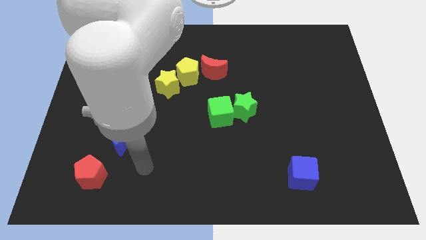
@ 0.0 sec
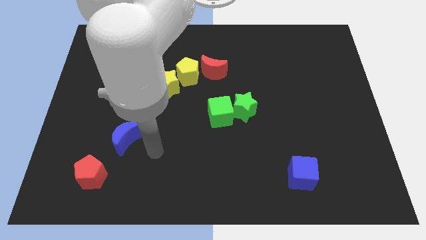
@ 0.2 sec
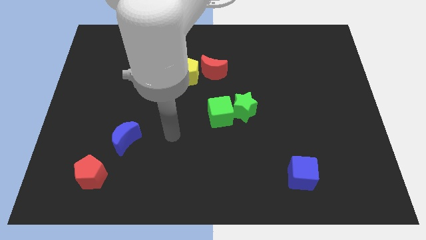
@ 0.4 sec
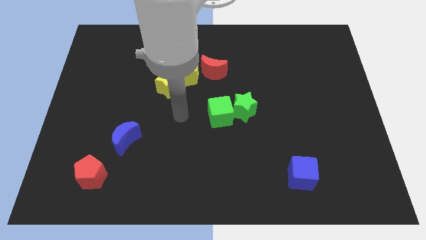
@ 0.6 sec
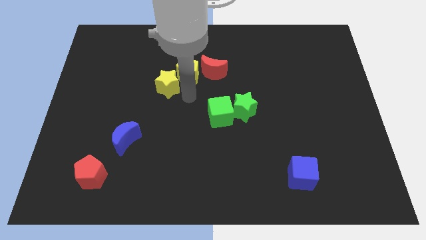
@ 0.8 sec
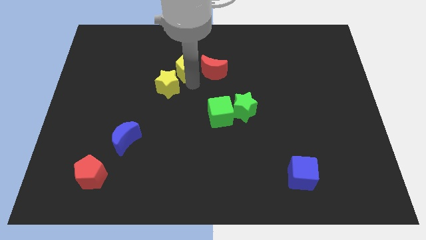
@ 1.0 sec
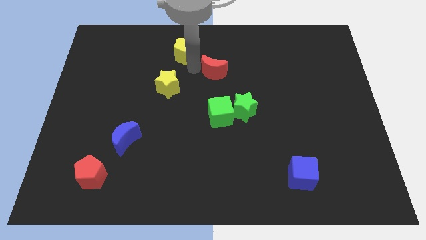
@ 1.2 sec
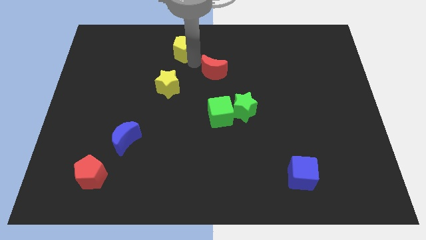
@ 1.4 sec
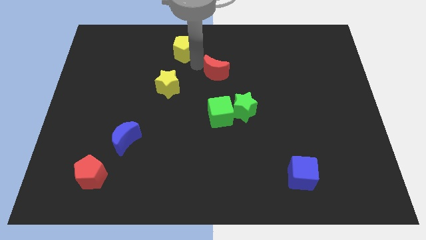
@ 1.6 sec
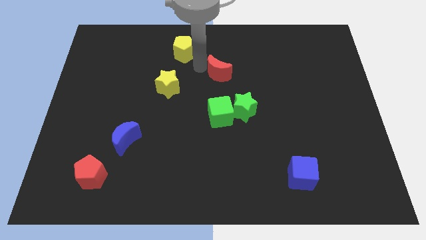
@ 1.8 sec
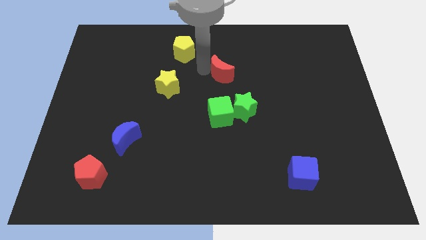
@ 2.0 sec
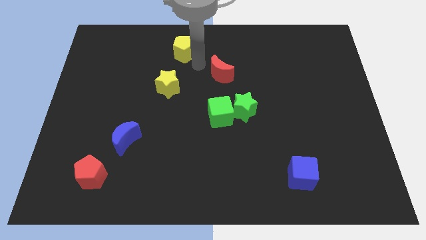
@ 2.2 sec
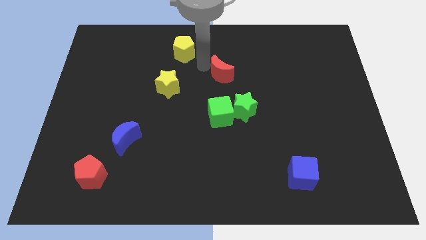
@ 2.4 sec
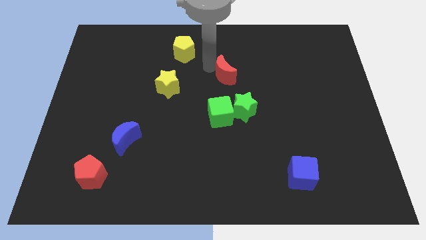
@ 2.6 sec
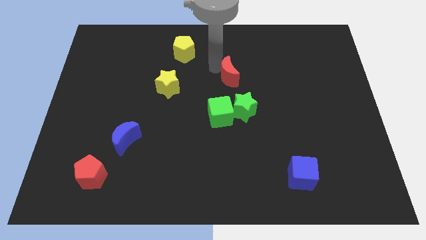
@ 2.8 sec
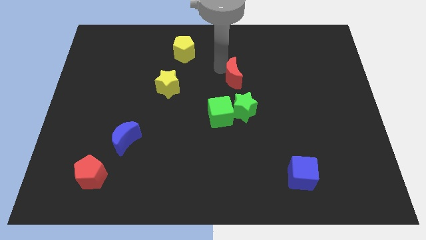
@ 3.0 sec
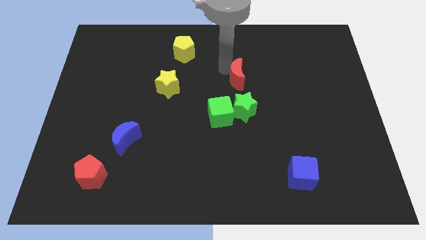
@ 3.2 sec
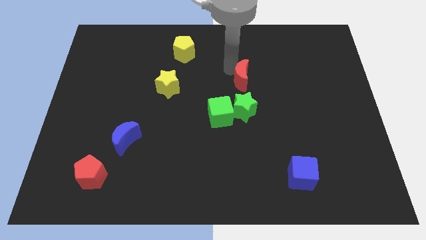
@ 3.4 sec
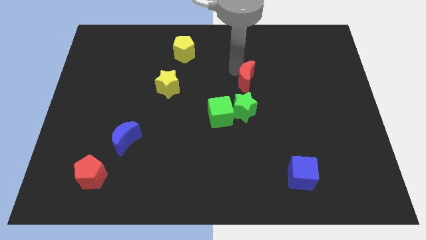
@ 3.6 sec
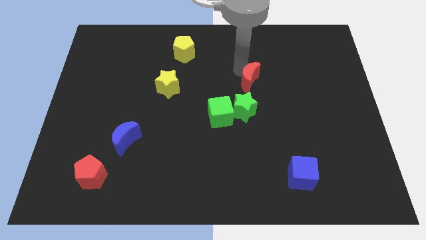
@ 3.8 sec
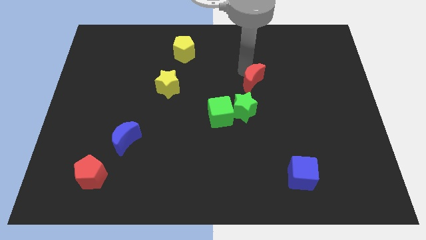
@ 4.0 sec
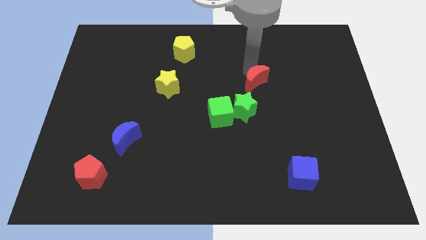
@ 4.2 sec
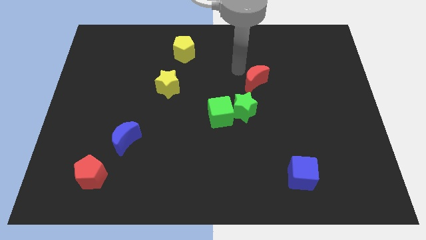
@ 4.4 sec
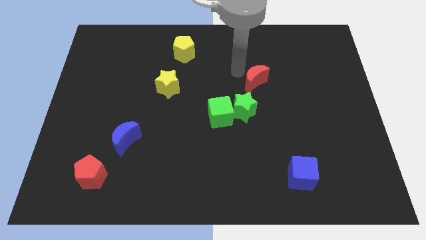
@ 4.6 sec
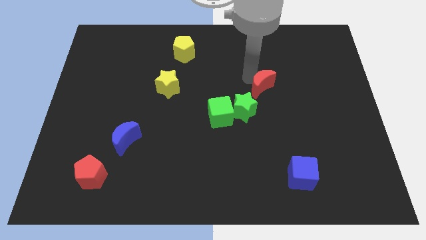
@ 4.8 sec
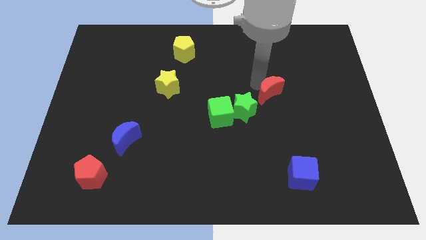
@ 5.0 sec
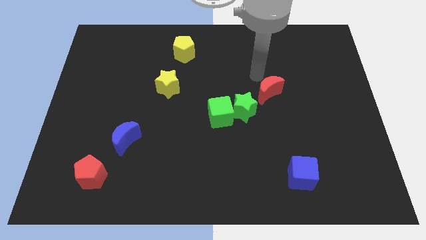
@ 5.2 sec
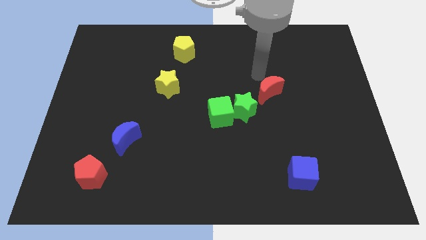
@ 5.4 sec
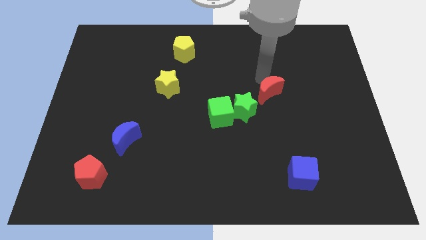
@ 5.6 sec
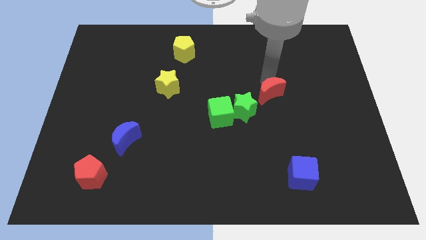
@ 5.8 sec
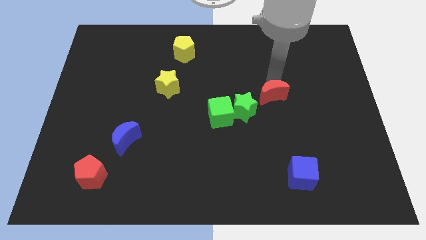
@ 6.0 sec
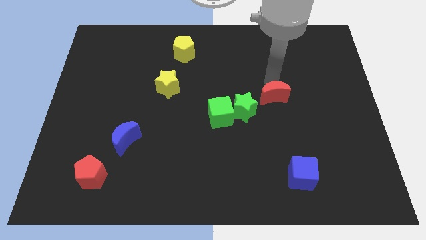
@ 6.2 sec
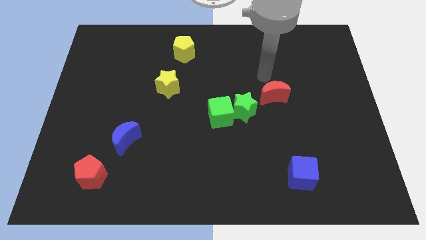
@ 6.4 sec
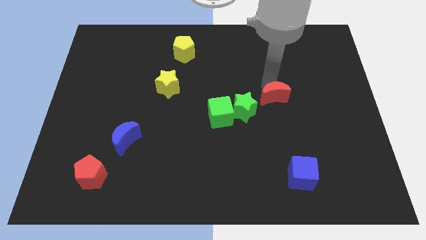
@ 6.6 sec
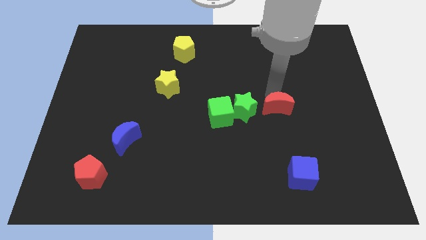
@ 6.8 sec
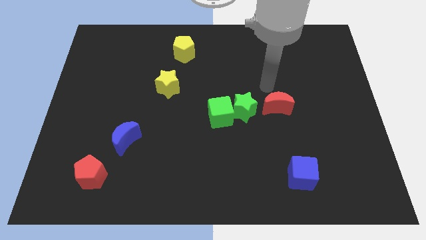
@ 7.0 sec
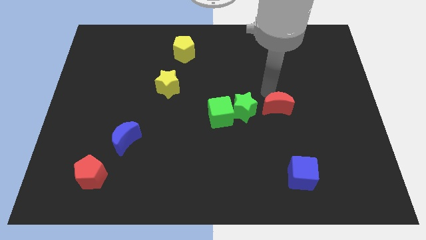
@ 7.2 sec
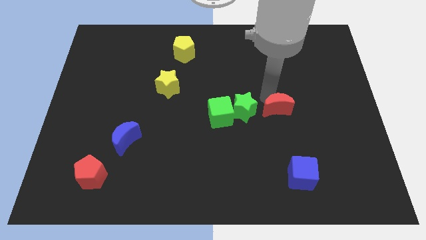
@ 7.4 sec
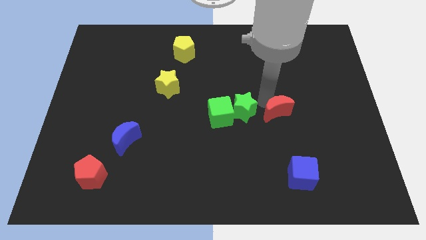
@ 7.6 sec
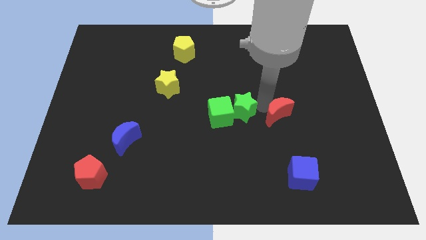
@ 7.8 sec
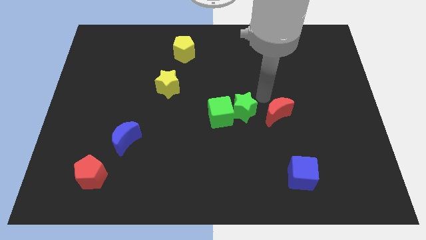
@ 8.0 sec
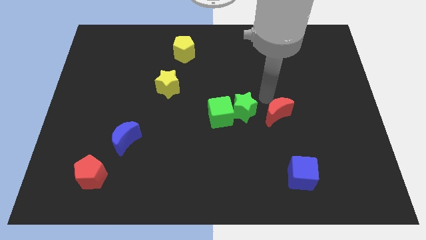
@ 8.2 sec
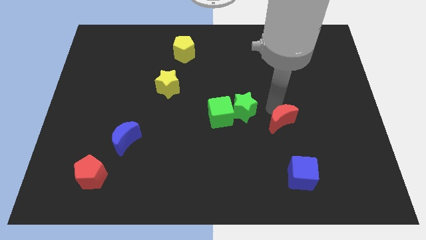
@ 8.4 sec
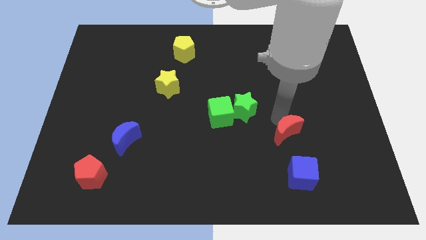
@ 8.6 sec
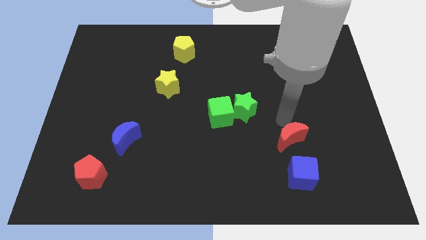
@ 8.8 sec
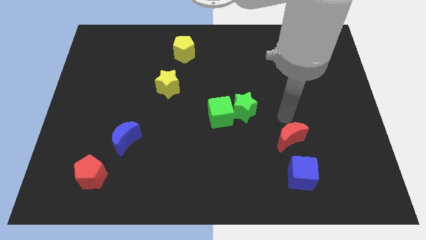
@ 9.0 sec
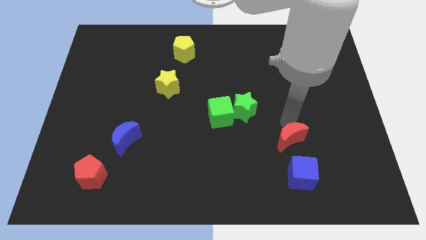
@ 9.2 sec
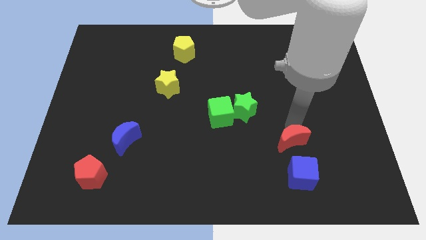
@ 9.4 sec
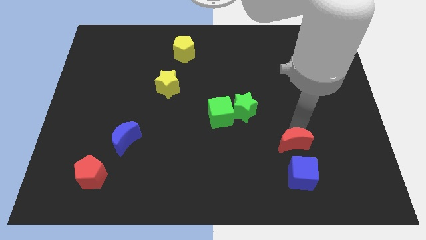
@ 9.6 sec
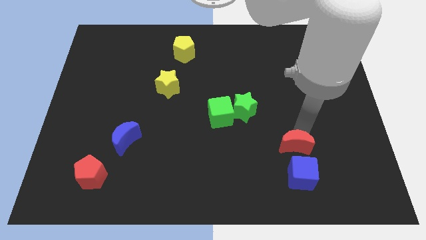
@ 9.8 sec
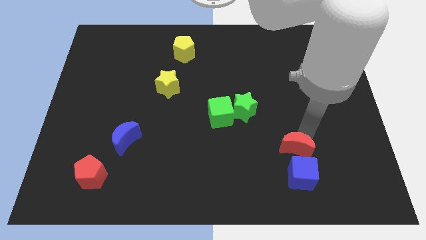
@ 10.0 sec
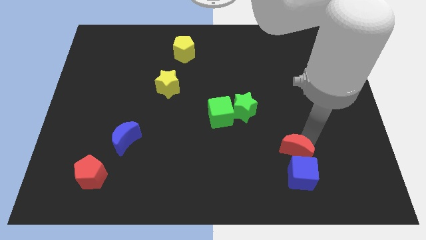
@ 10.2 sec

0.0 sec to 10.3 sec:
move the red moon close to the blue cube

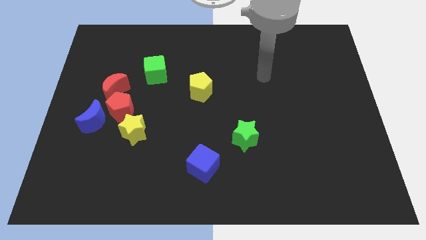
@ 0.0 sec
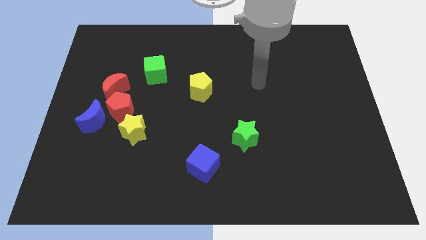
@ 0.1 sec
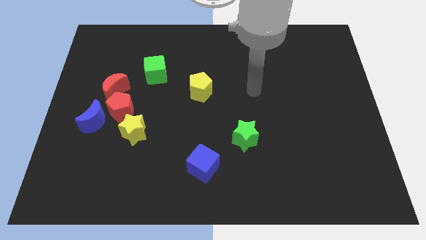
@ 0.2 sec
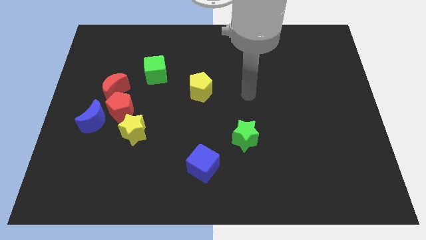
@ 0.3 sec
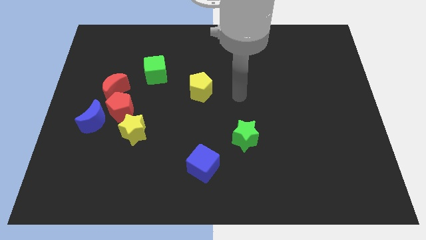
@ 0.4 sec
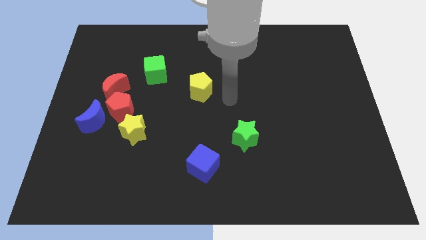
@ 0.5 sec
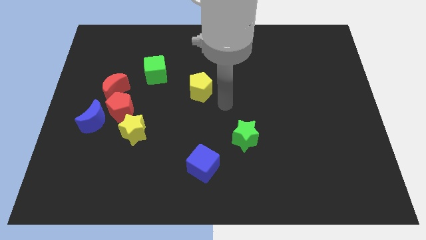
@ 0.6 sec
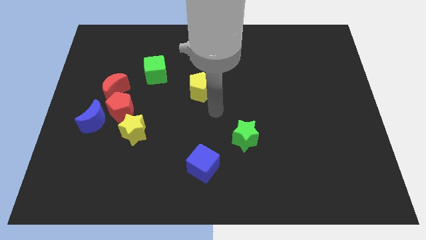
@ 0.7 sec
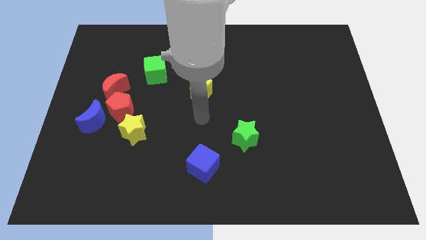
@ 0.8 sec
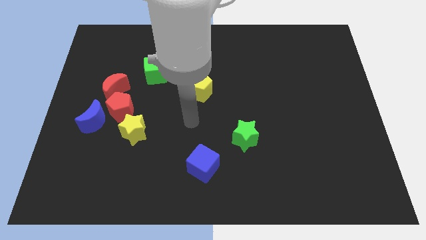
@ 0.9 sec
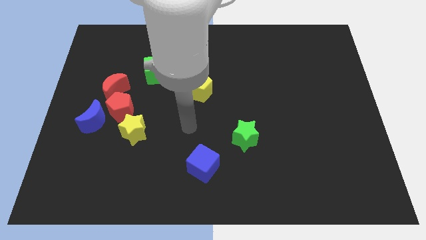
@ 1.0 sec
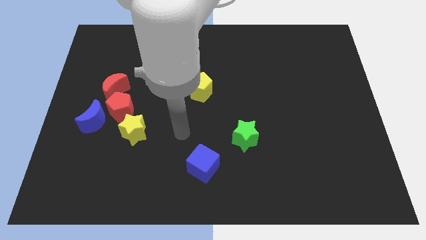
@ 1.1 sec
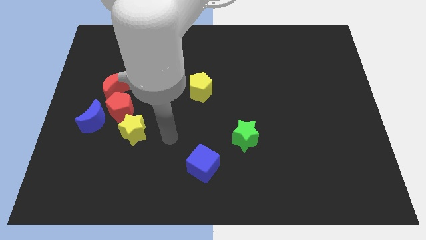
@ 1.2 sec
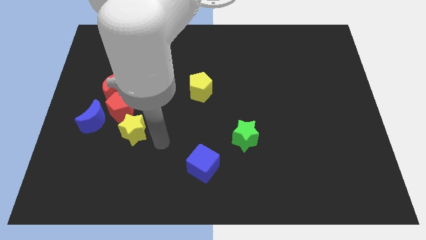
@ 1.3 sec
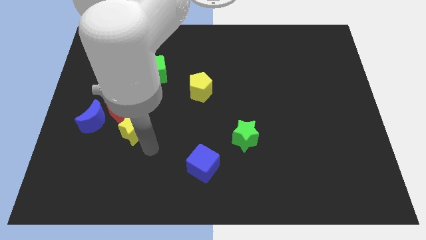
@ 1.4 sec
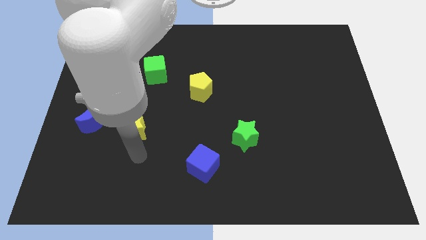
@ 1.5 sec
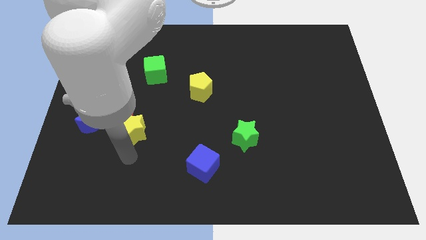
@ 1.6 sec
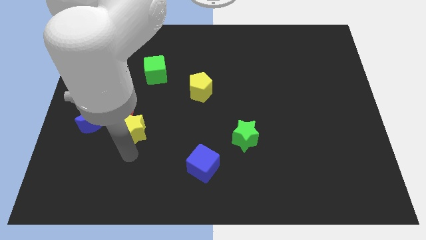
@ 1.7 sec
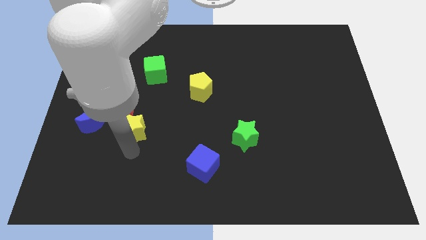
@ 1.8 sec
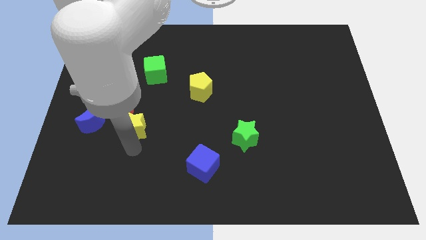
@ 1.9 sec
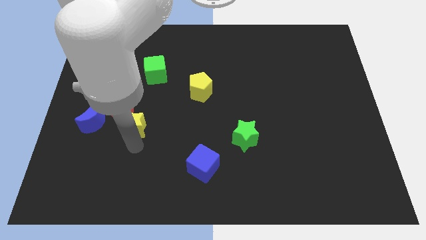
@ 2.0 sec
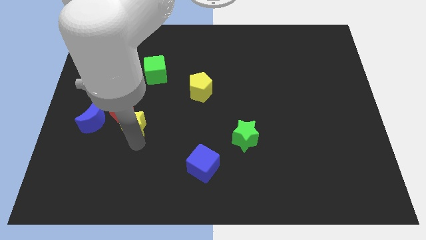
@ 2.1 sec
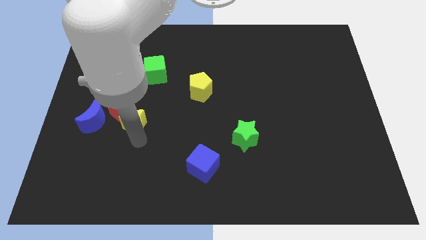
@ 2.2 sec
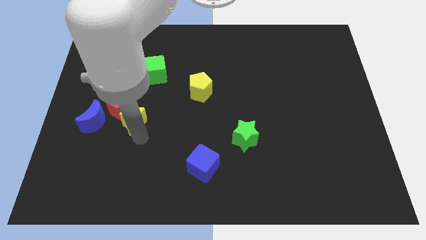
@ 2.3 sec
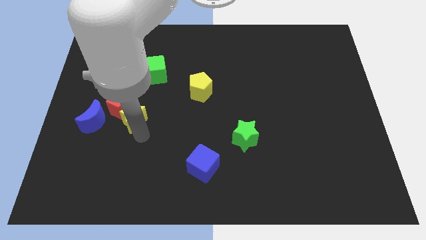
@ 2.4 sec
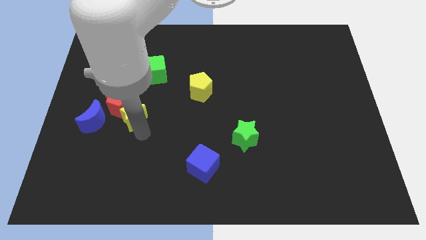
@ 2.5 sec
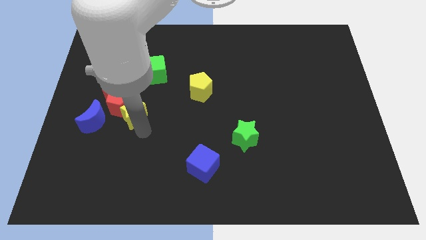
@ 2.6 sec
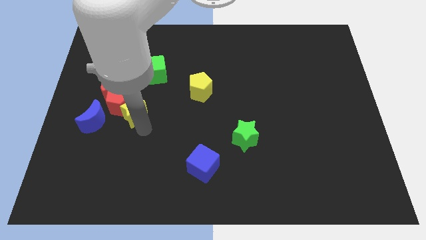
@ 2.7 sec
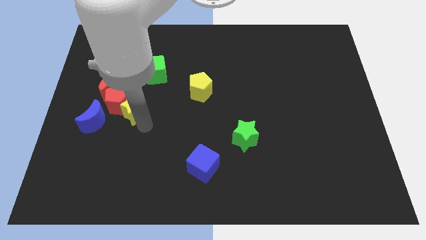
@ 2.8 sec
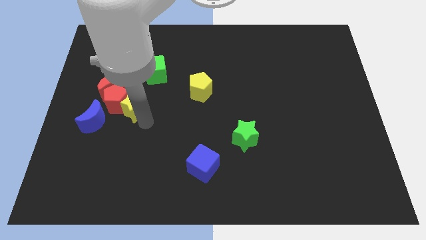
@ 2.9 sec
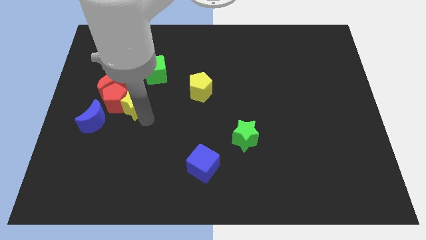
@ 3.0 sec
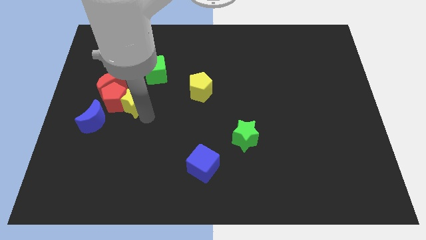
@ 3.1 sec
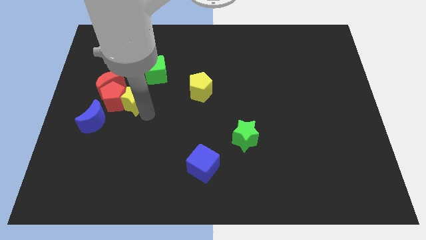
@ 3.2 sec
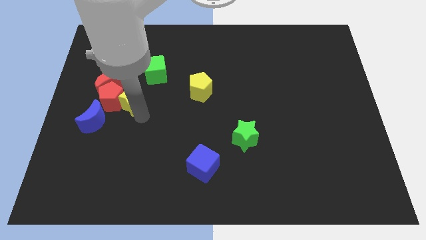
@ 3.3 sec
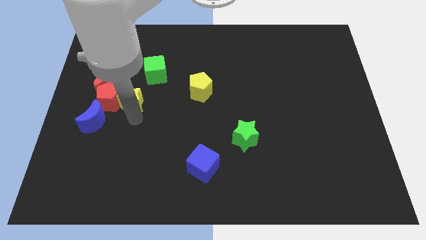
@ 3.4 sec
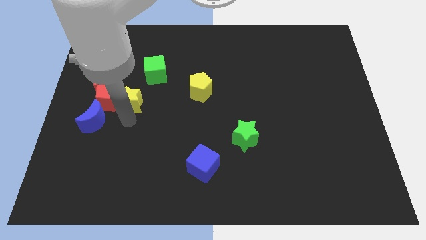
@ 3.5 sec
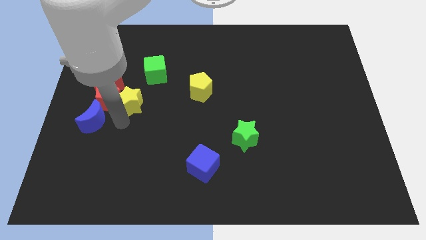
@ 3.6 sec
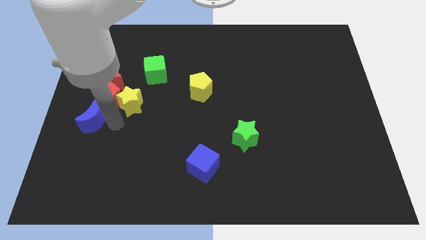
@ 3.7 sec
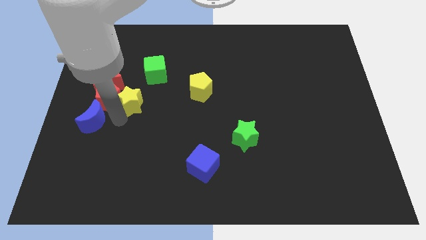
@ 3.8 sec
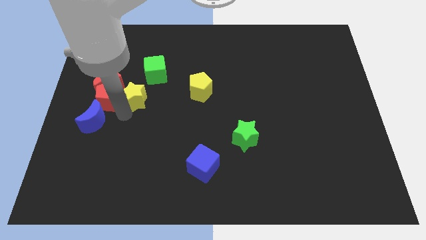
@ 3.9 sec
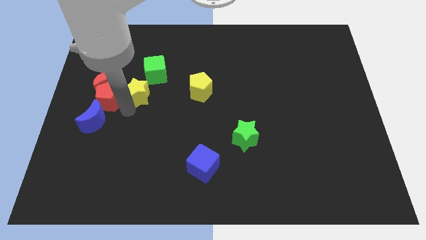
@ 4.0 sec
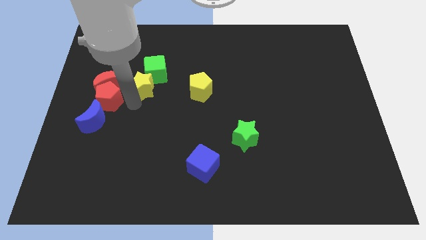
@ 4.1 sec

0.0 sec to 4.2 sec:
push the yellow star close to the green cube
